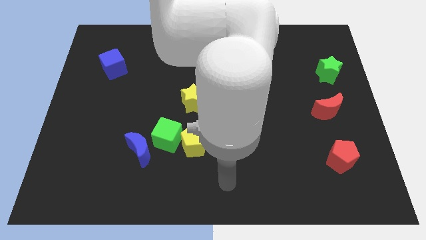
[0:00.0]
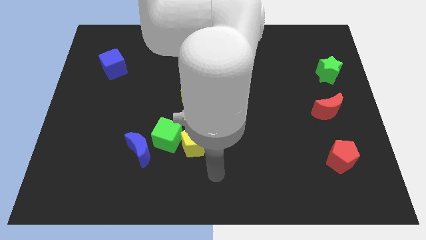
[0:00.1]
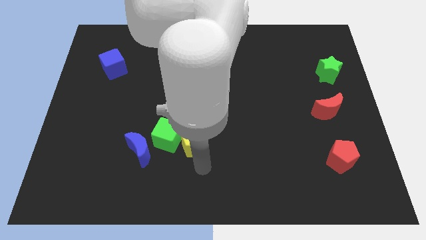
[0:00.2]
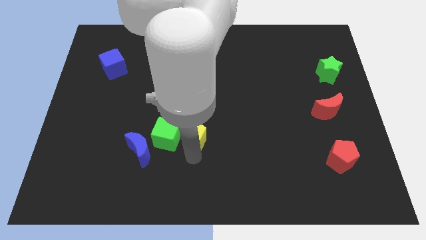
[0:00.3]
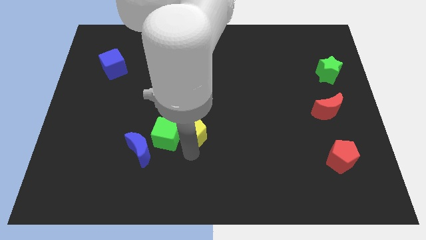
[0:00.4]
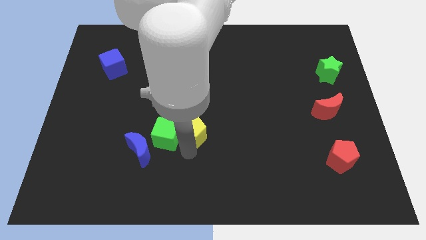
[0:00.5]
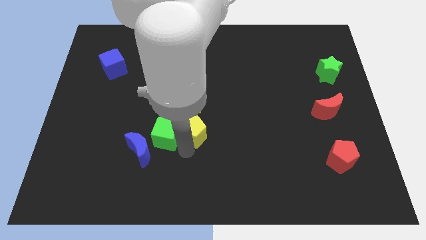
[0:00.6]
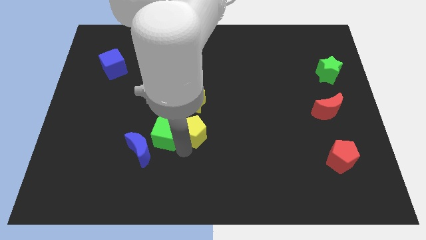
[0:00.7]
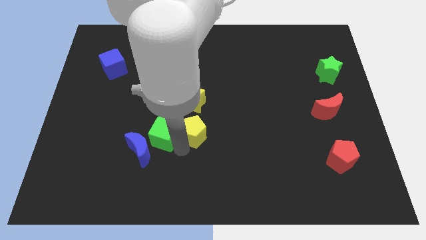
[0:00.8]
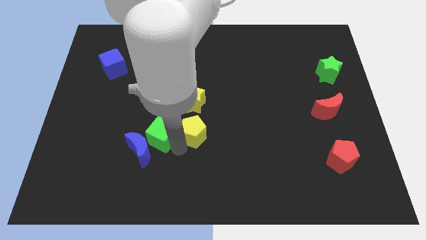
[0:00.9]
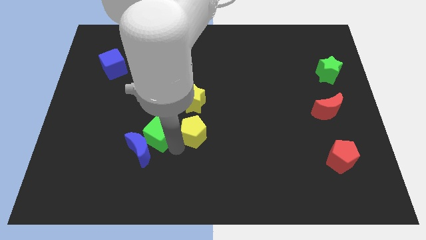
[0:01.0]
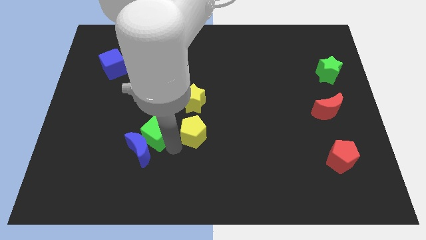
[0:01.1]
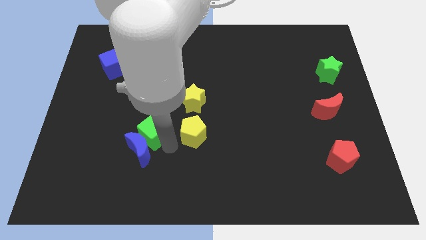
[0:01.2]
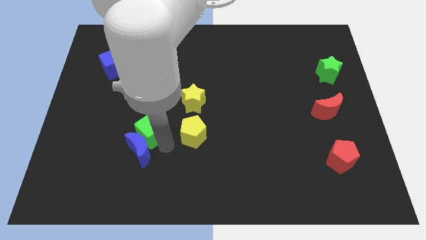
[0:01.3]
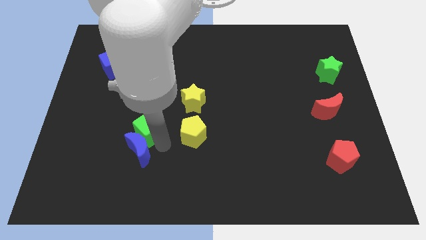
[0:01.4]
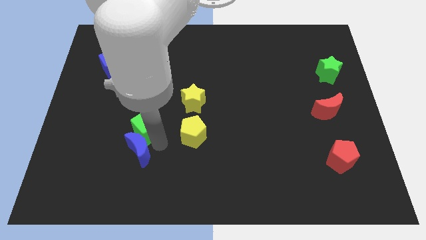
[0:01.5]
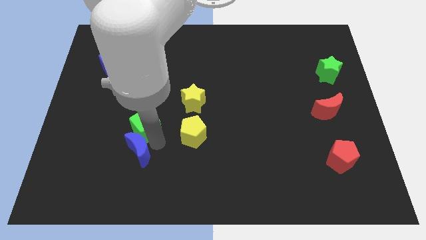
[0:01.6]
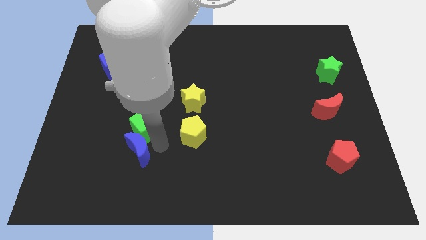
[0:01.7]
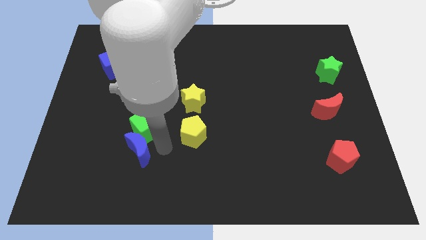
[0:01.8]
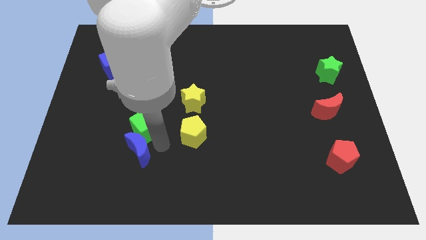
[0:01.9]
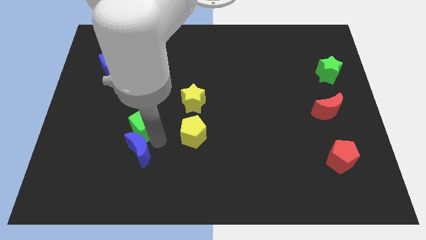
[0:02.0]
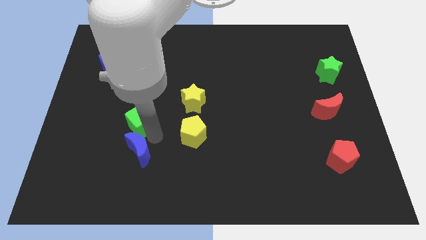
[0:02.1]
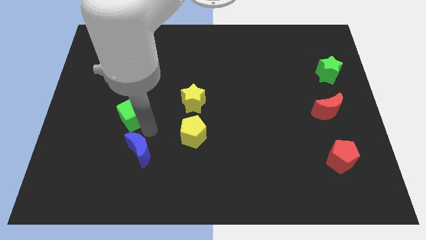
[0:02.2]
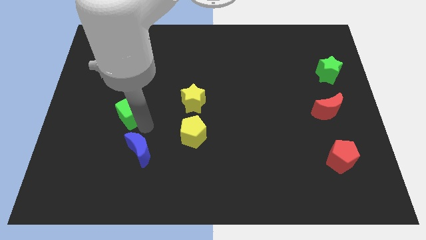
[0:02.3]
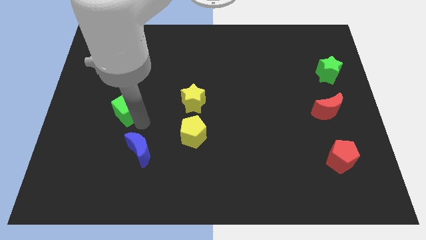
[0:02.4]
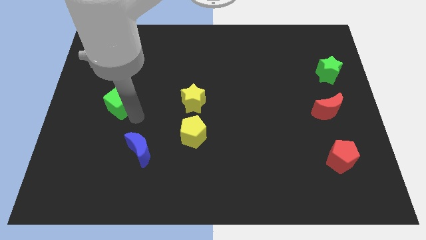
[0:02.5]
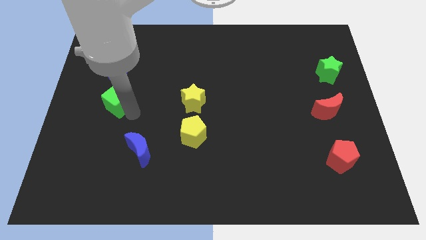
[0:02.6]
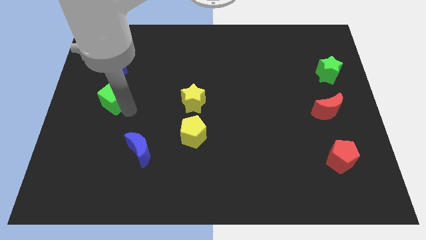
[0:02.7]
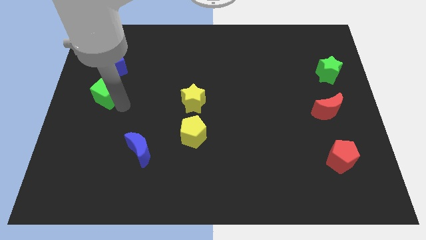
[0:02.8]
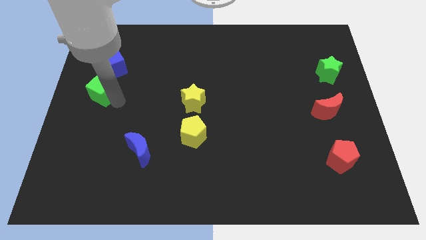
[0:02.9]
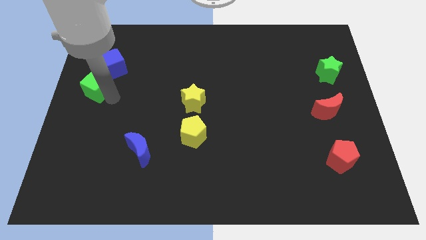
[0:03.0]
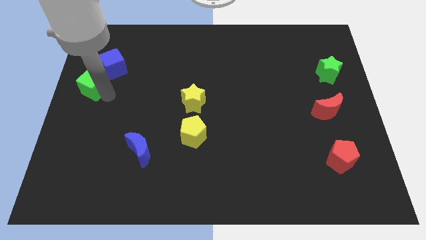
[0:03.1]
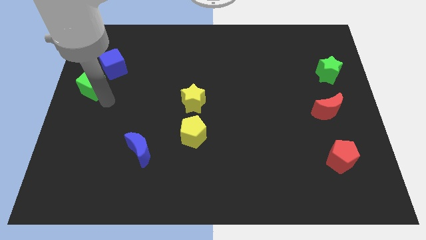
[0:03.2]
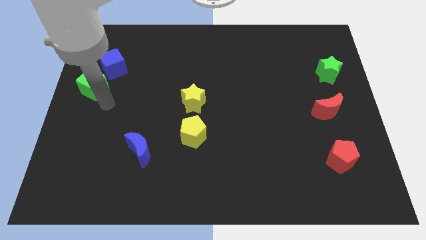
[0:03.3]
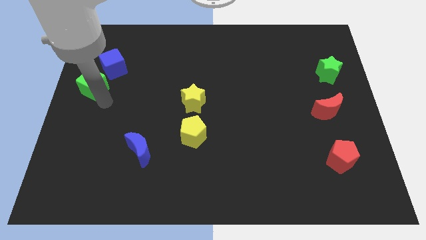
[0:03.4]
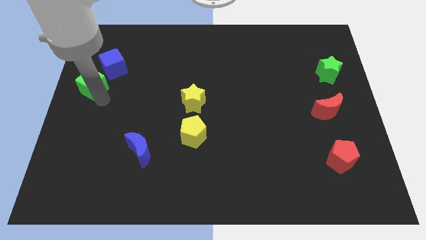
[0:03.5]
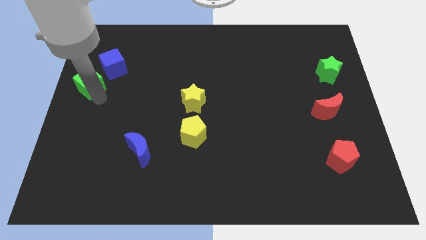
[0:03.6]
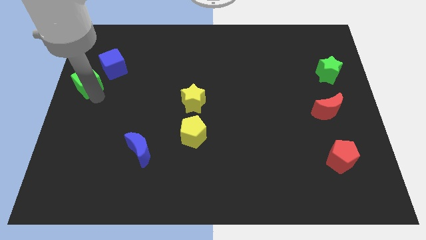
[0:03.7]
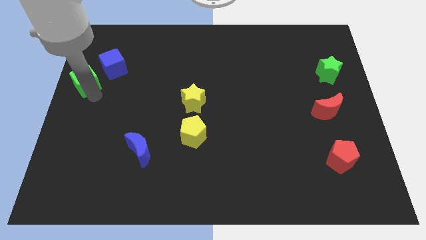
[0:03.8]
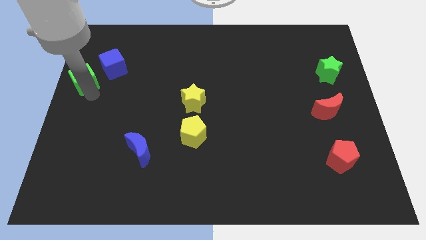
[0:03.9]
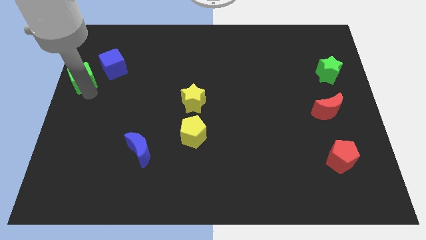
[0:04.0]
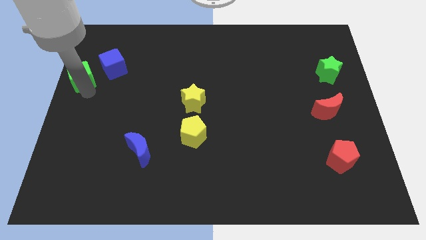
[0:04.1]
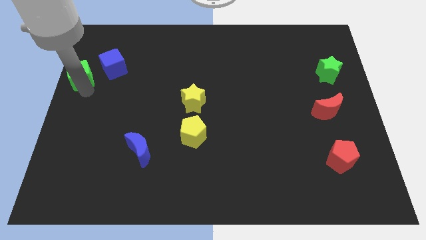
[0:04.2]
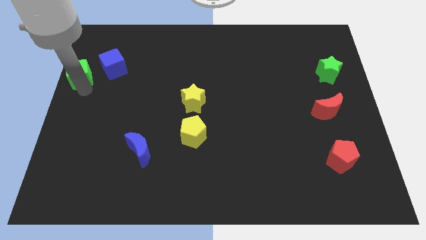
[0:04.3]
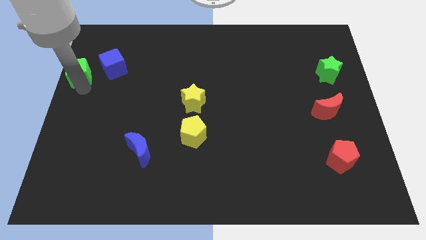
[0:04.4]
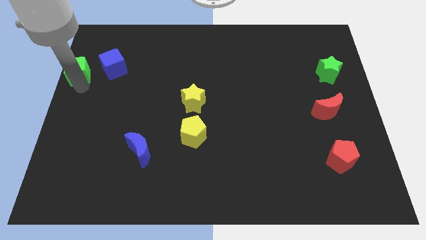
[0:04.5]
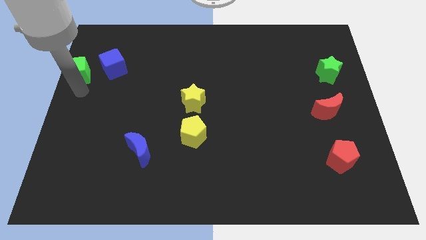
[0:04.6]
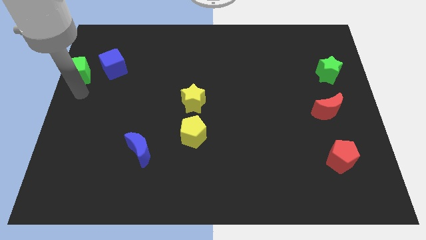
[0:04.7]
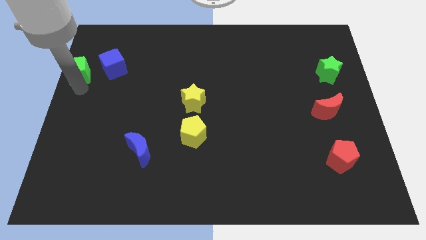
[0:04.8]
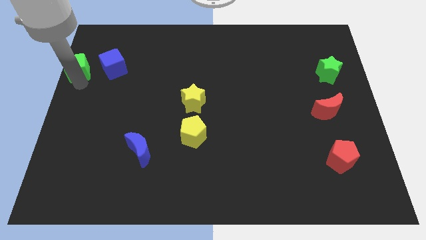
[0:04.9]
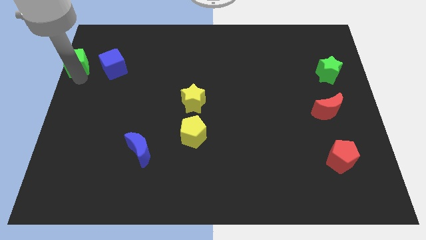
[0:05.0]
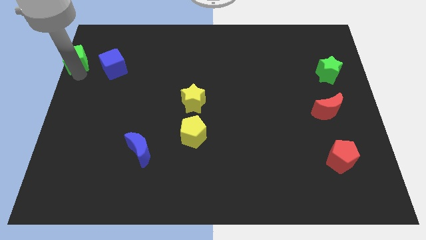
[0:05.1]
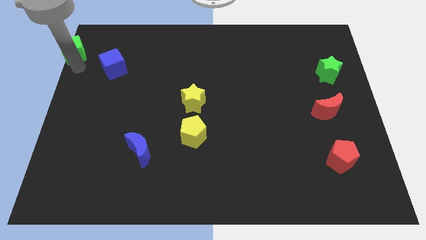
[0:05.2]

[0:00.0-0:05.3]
push the green cube to the upper left corner

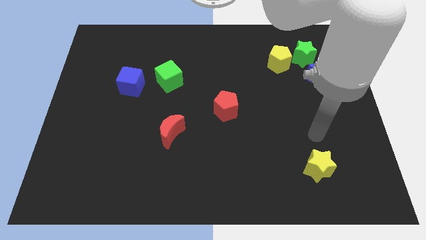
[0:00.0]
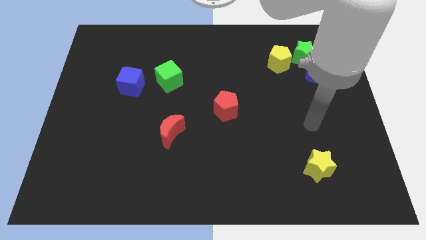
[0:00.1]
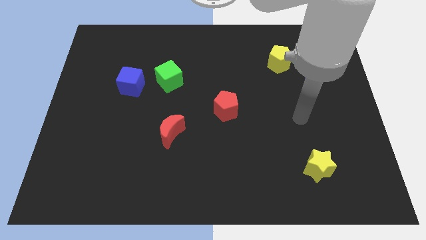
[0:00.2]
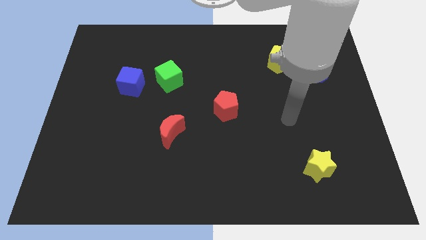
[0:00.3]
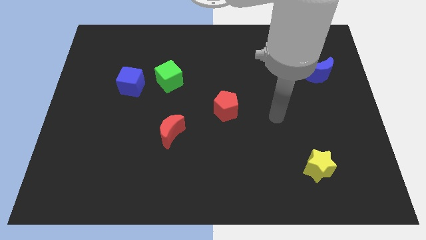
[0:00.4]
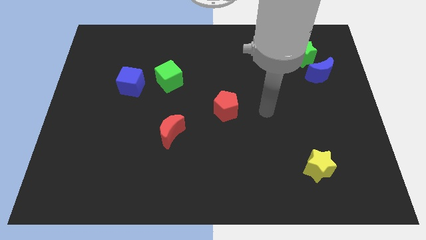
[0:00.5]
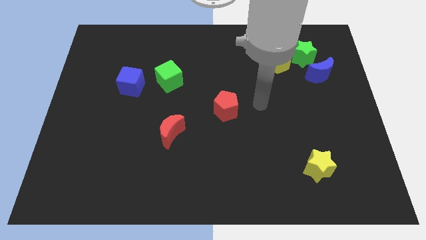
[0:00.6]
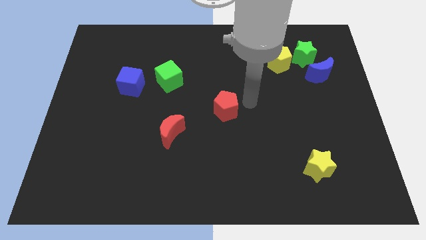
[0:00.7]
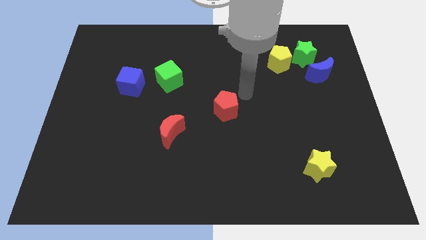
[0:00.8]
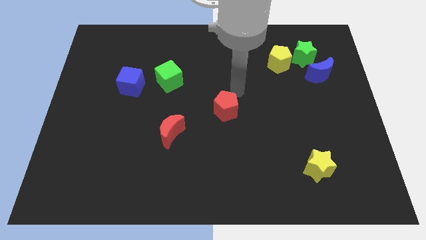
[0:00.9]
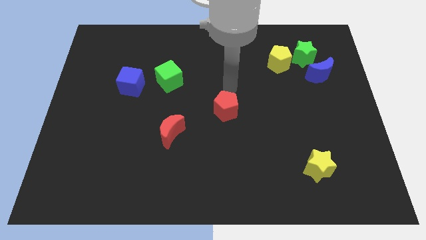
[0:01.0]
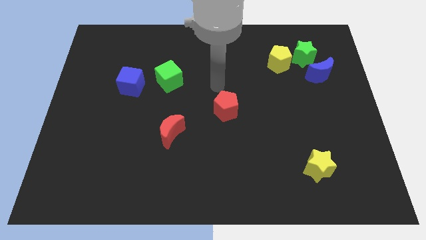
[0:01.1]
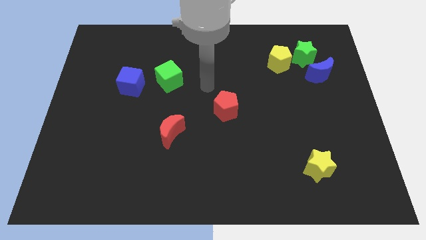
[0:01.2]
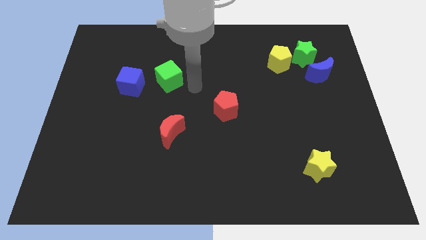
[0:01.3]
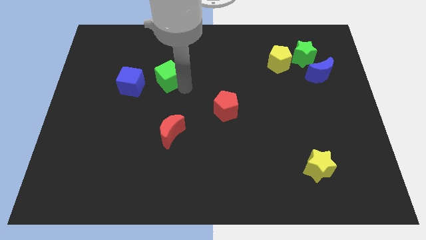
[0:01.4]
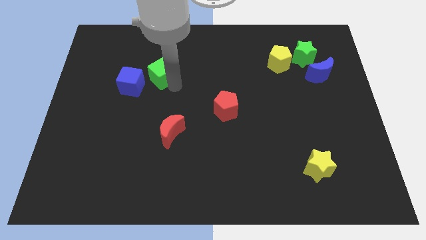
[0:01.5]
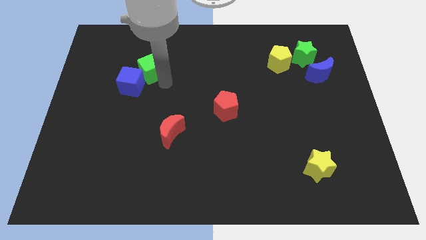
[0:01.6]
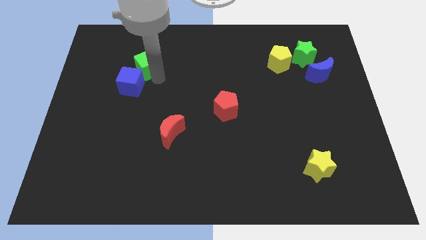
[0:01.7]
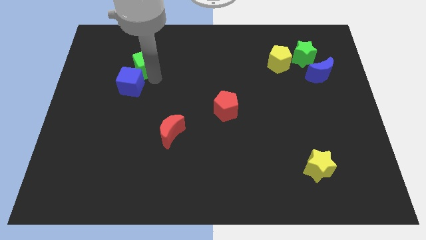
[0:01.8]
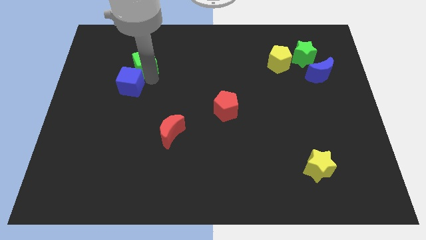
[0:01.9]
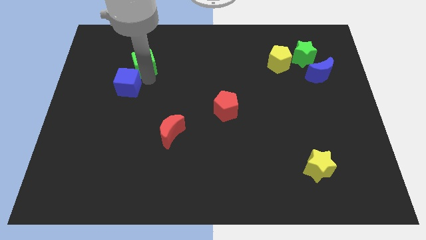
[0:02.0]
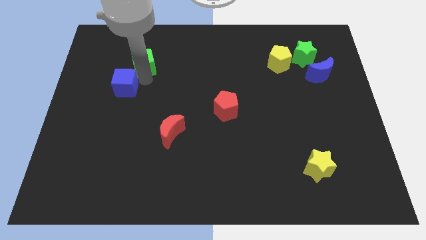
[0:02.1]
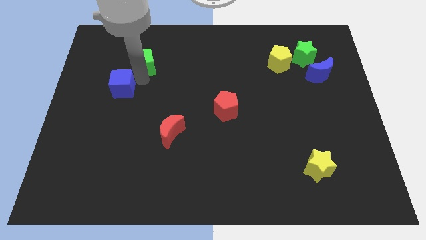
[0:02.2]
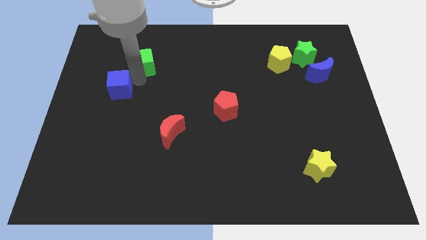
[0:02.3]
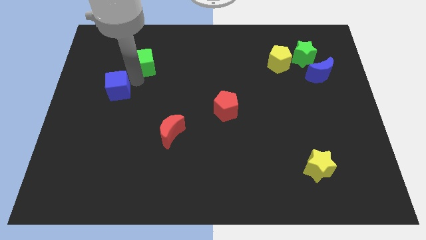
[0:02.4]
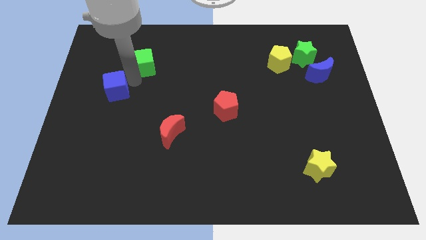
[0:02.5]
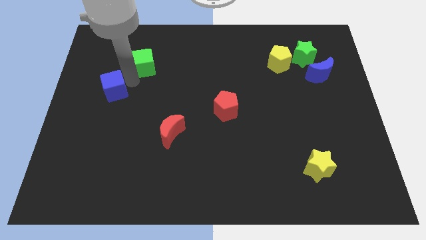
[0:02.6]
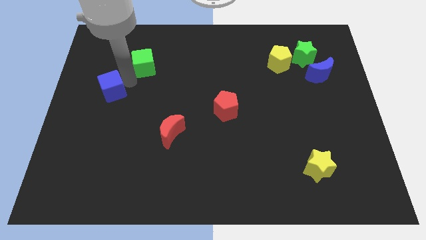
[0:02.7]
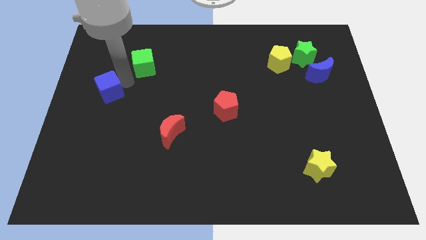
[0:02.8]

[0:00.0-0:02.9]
put the blue cube to the center left
